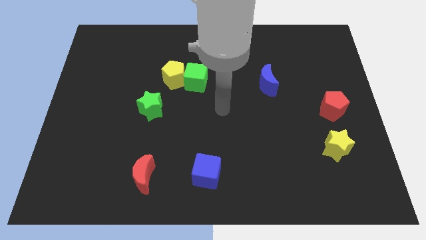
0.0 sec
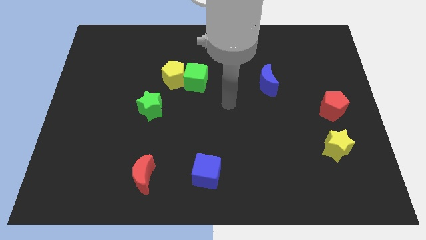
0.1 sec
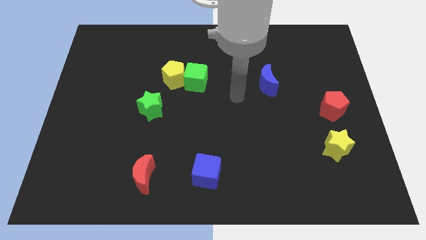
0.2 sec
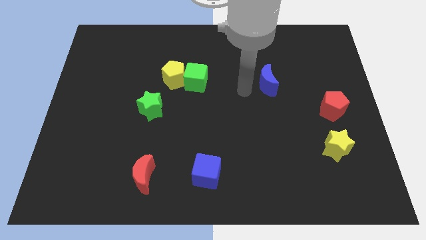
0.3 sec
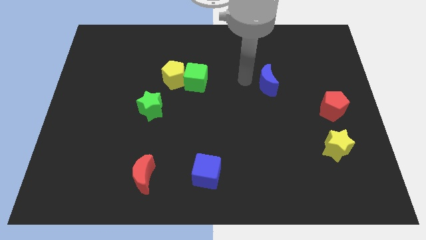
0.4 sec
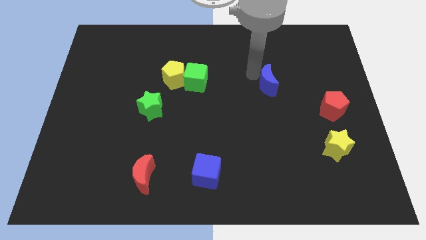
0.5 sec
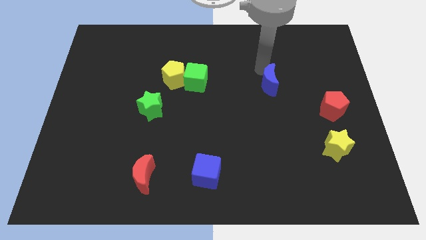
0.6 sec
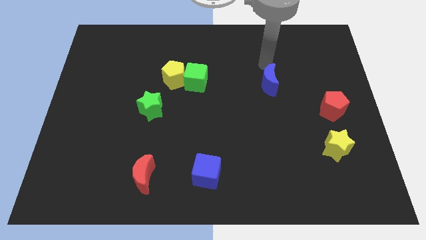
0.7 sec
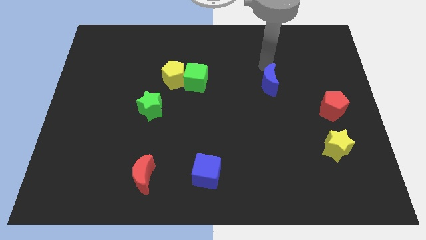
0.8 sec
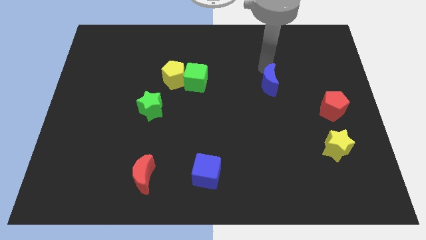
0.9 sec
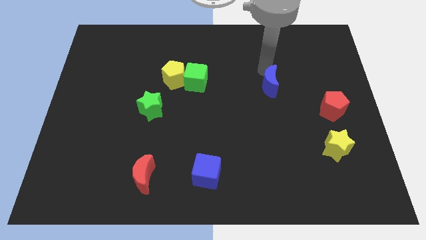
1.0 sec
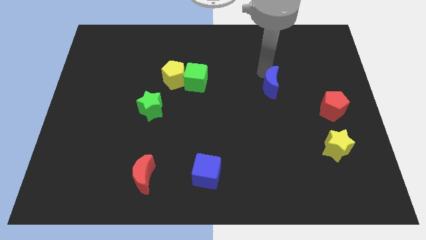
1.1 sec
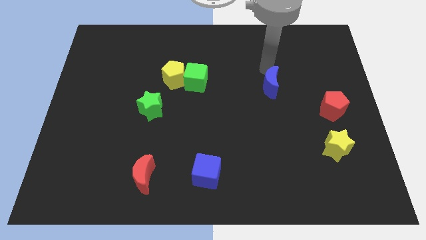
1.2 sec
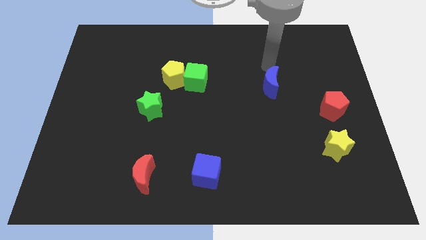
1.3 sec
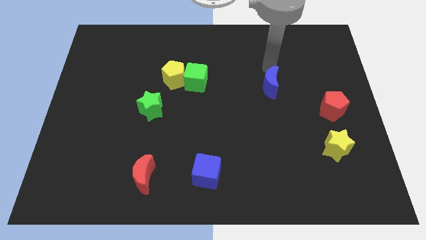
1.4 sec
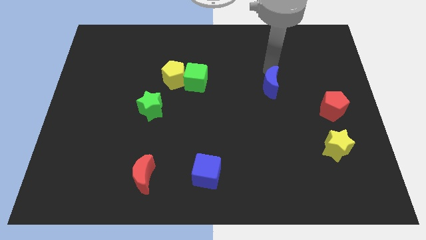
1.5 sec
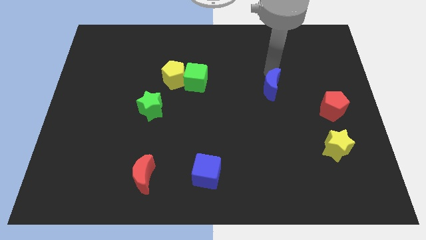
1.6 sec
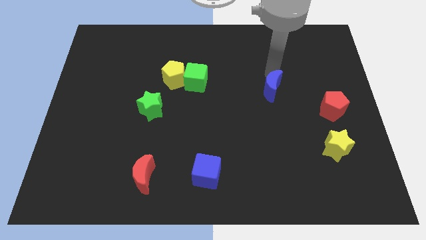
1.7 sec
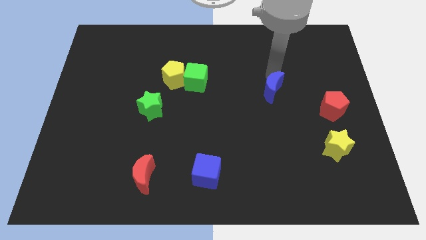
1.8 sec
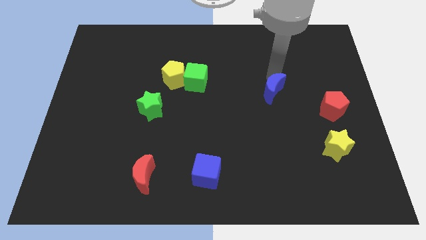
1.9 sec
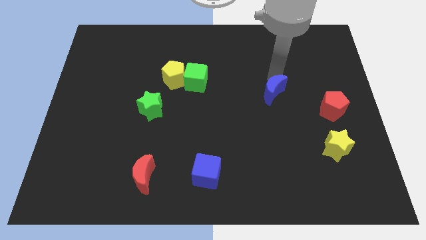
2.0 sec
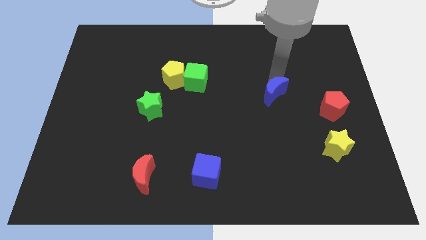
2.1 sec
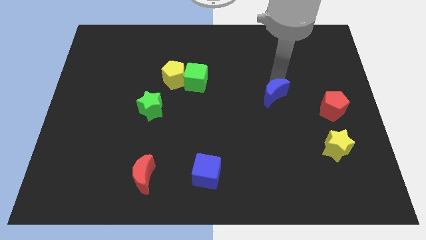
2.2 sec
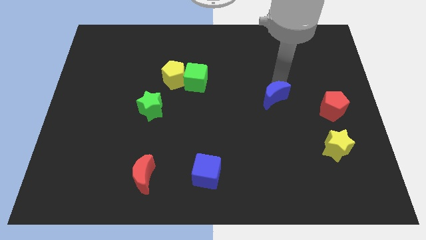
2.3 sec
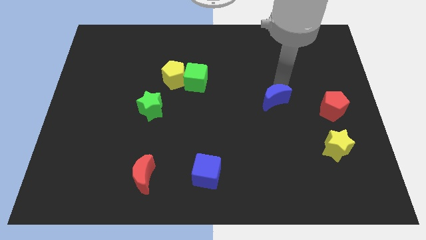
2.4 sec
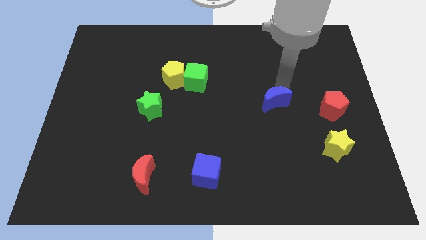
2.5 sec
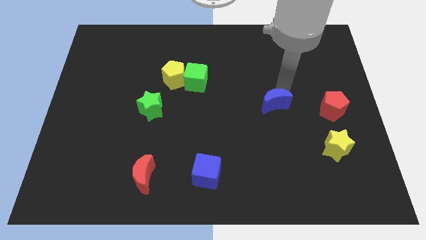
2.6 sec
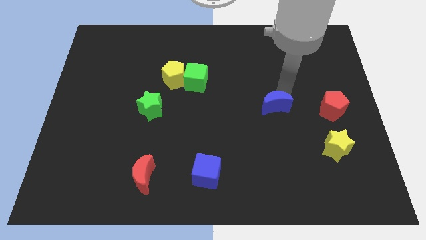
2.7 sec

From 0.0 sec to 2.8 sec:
slightly slide the blue moon downwards

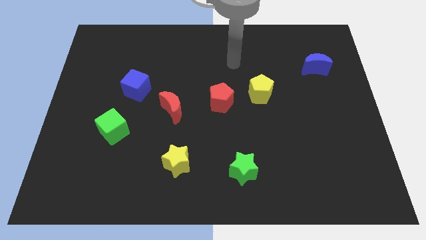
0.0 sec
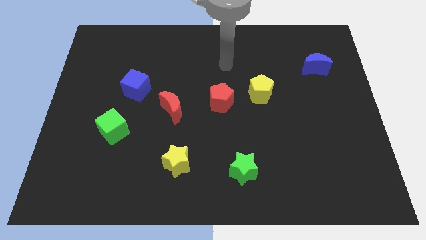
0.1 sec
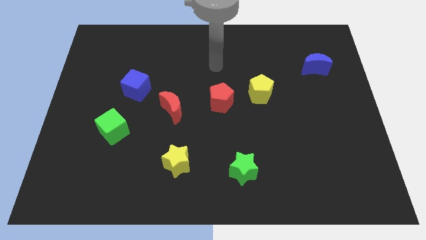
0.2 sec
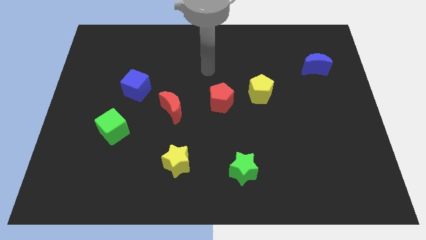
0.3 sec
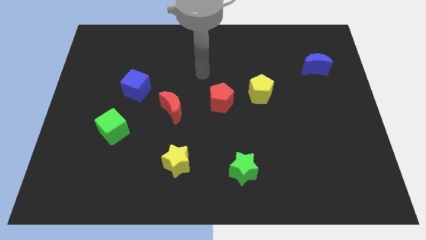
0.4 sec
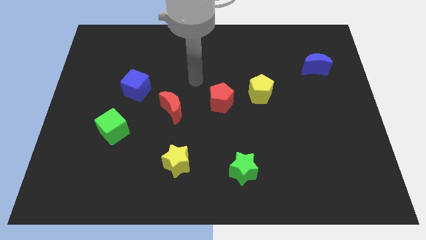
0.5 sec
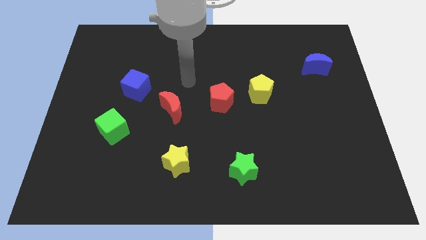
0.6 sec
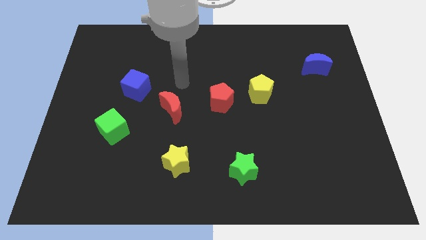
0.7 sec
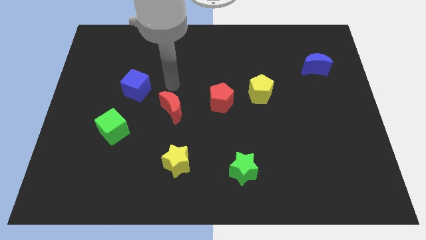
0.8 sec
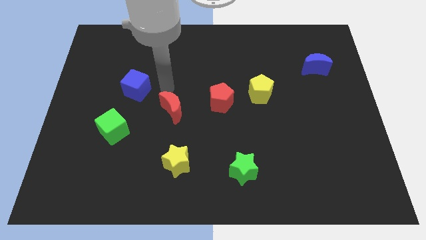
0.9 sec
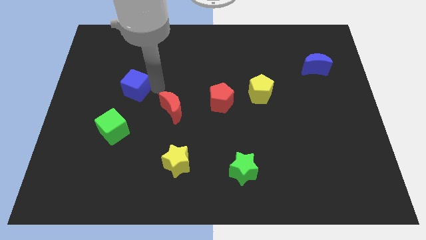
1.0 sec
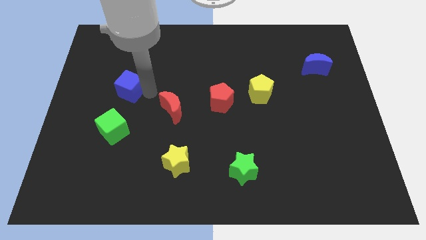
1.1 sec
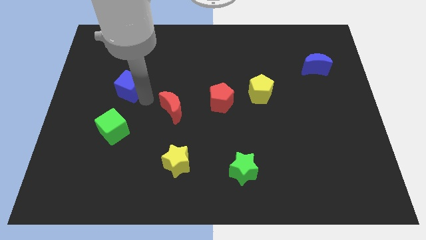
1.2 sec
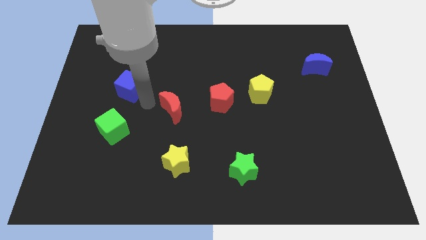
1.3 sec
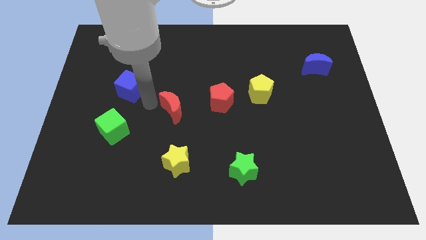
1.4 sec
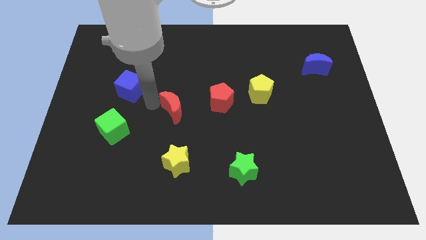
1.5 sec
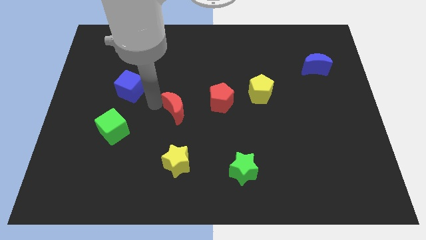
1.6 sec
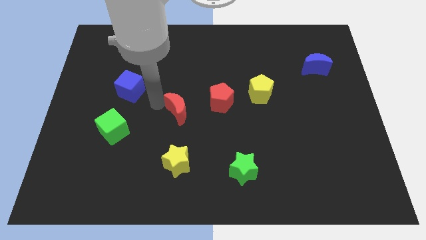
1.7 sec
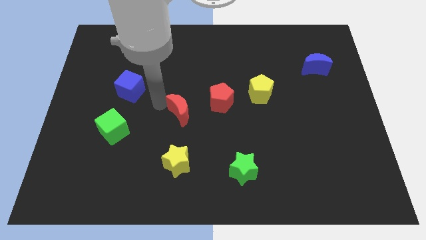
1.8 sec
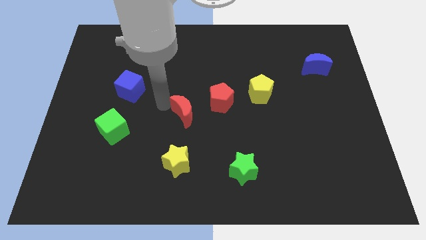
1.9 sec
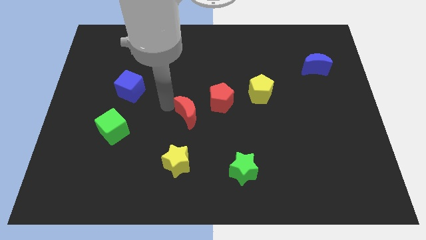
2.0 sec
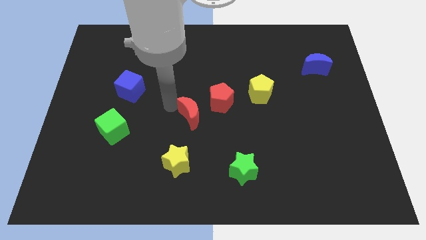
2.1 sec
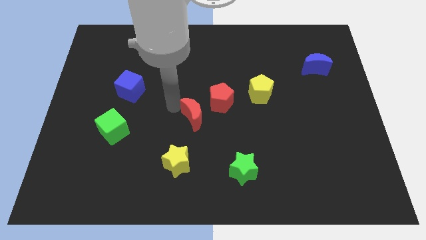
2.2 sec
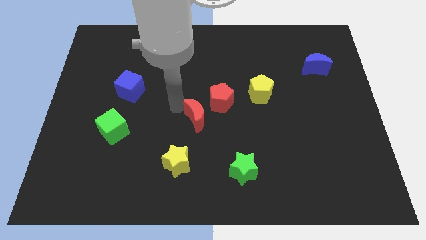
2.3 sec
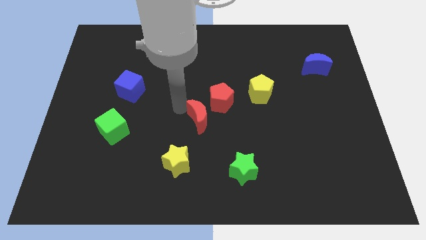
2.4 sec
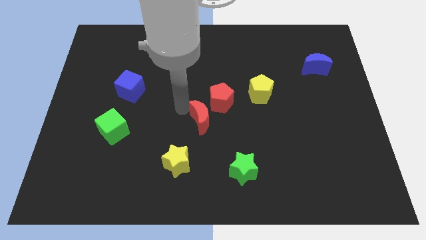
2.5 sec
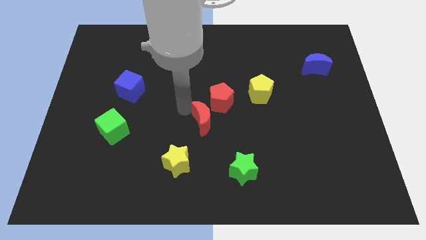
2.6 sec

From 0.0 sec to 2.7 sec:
slide the red moon right a bit

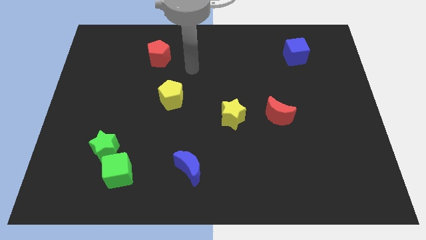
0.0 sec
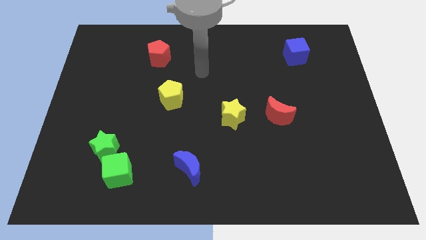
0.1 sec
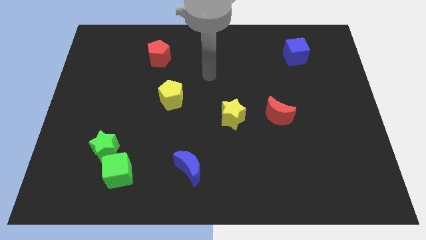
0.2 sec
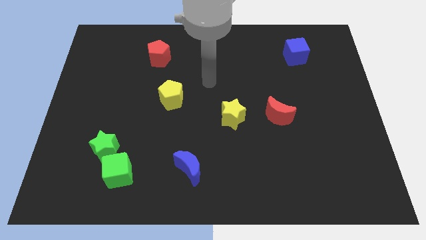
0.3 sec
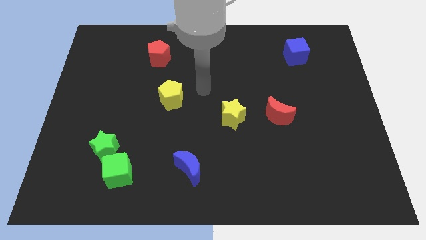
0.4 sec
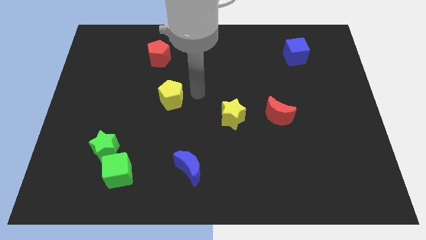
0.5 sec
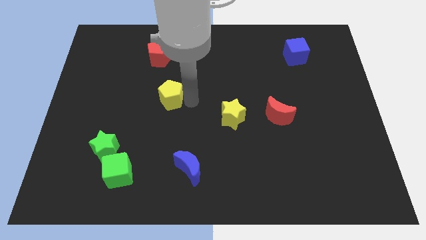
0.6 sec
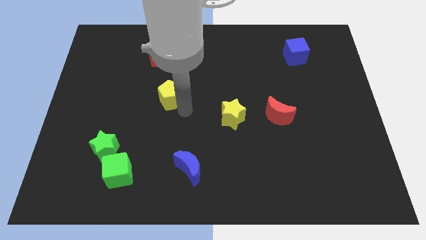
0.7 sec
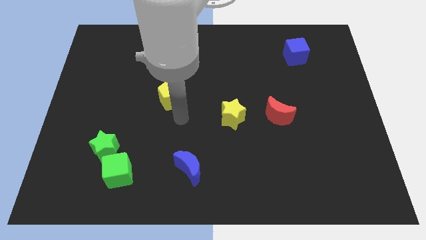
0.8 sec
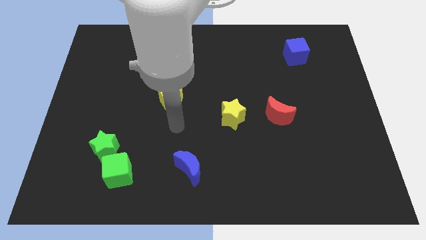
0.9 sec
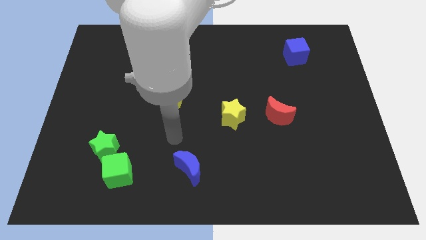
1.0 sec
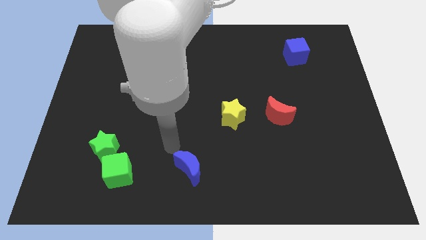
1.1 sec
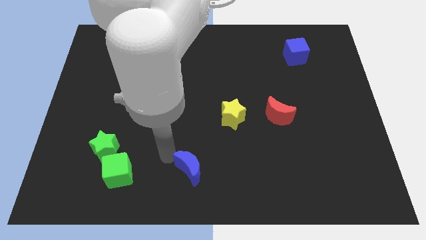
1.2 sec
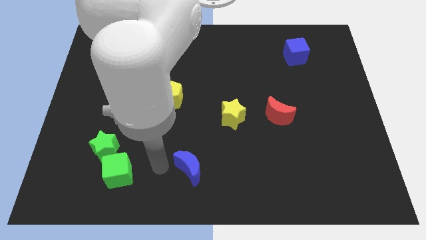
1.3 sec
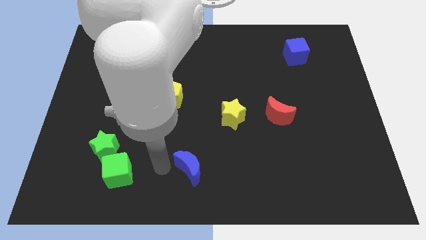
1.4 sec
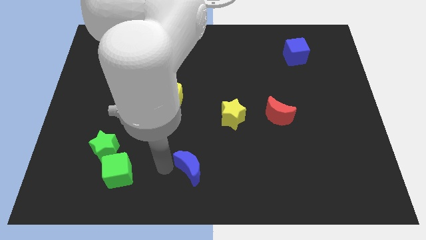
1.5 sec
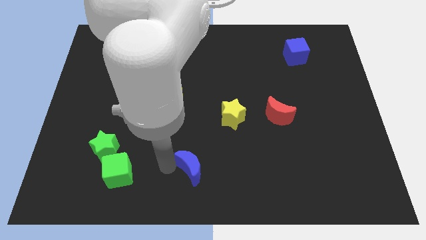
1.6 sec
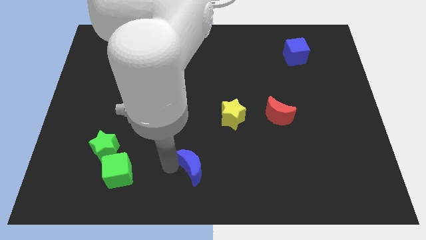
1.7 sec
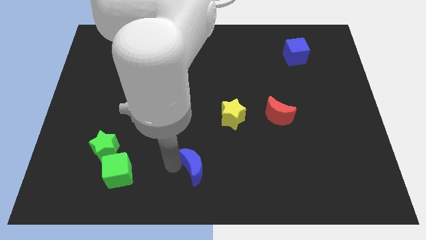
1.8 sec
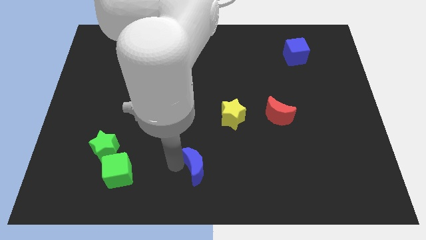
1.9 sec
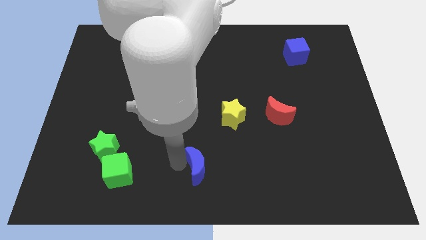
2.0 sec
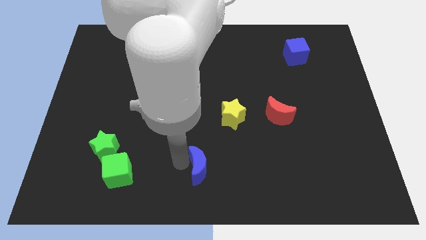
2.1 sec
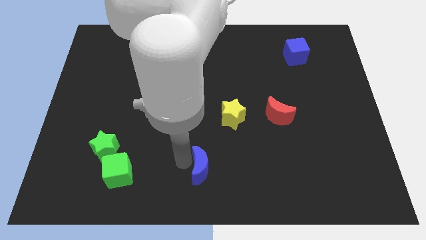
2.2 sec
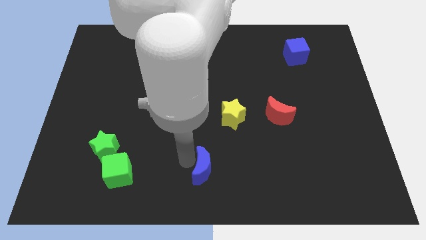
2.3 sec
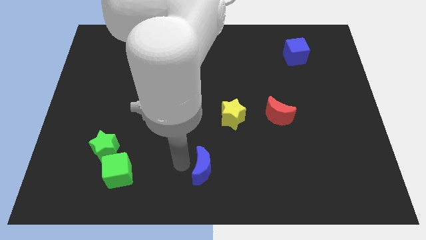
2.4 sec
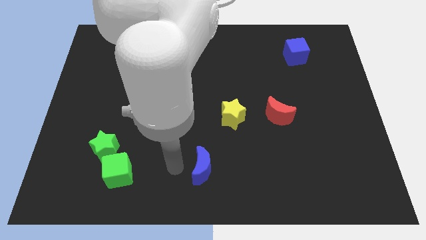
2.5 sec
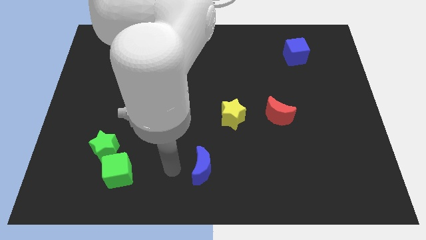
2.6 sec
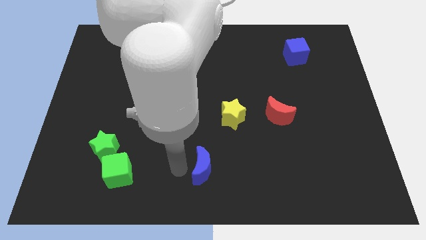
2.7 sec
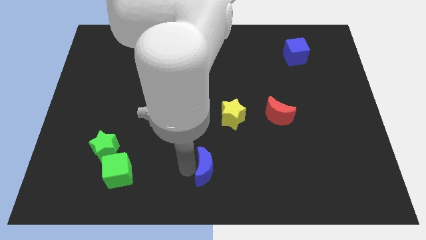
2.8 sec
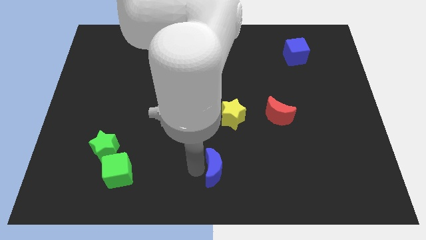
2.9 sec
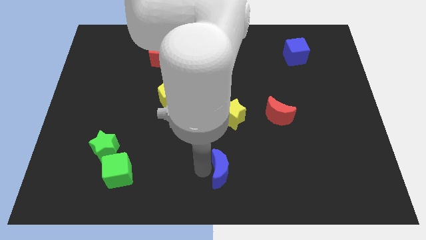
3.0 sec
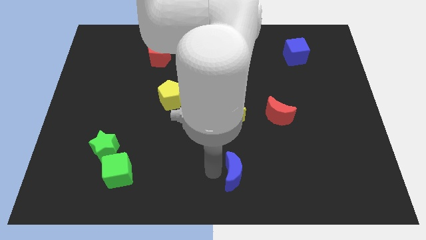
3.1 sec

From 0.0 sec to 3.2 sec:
push the blue moon somewhat right

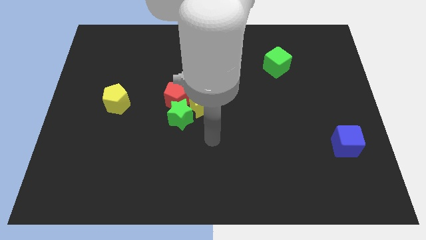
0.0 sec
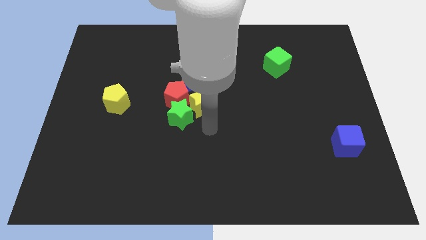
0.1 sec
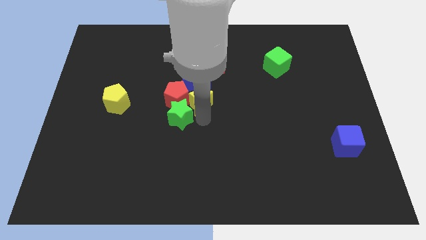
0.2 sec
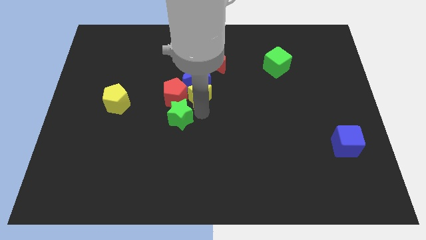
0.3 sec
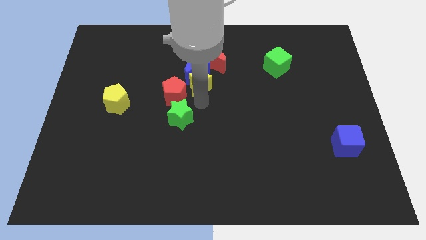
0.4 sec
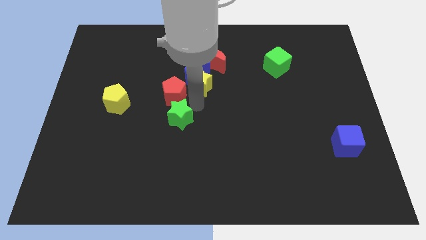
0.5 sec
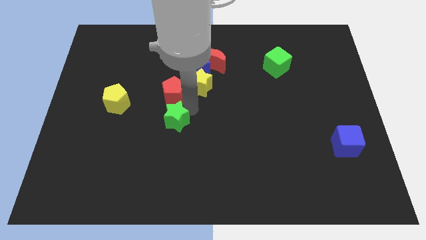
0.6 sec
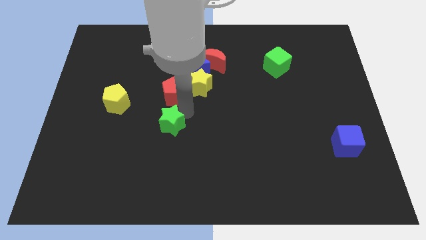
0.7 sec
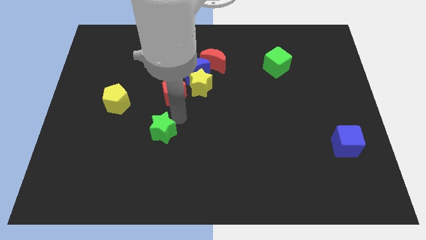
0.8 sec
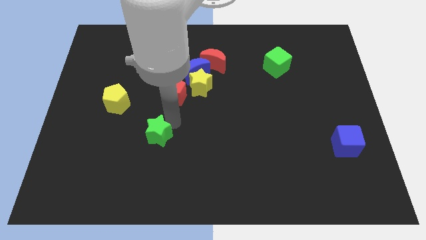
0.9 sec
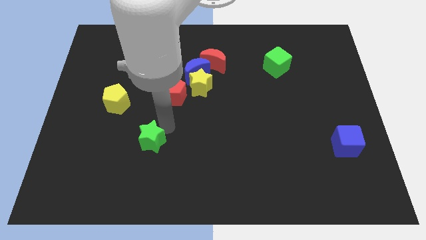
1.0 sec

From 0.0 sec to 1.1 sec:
move the green star diagonally down and left somewhat
